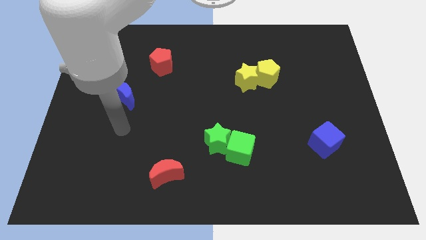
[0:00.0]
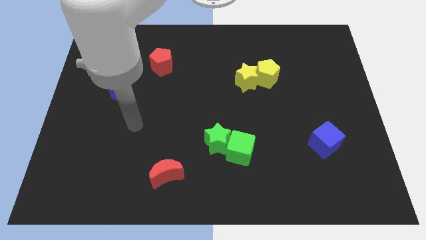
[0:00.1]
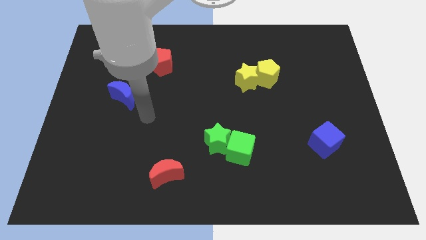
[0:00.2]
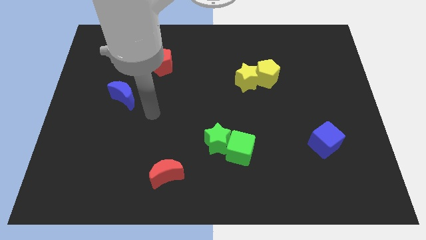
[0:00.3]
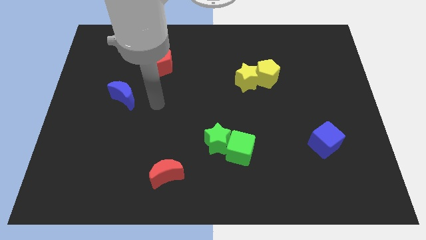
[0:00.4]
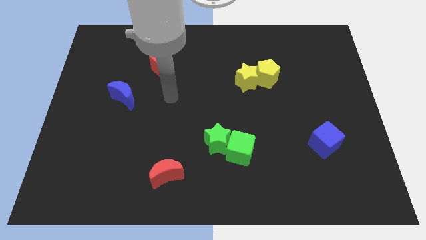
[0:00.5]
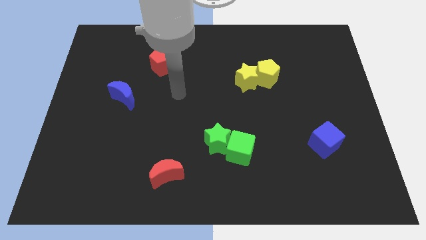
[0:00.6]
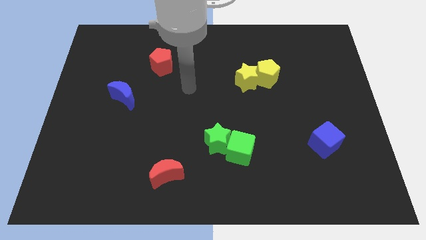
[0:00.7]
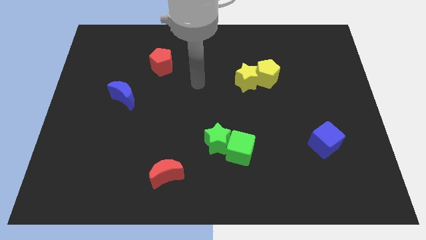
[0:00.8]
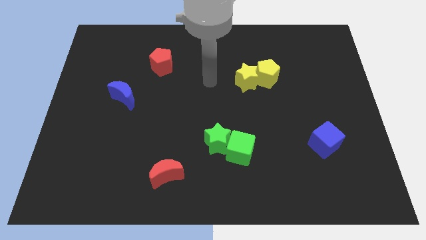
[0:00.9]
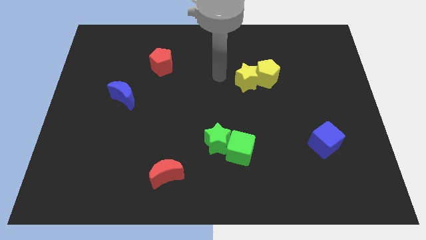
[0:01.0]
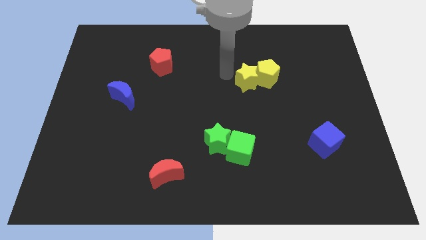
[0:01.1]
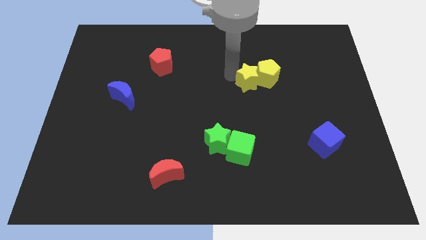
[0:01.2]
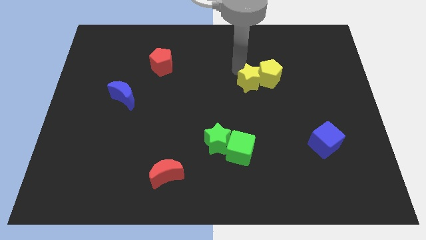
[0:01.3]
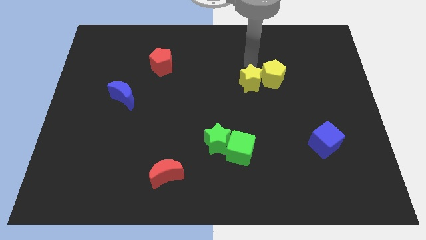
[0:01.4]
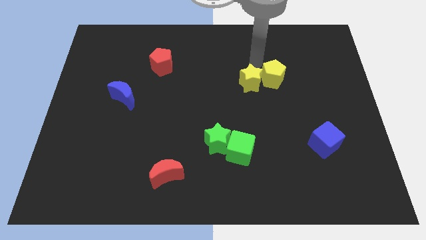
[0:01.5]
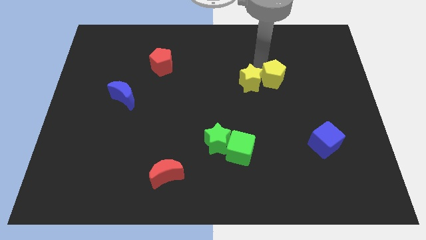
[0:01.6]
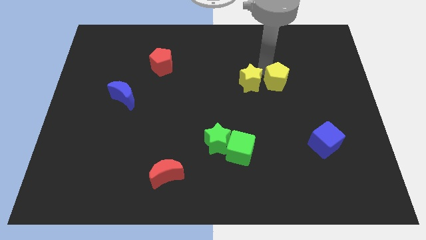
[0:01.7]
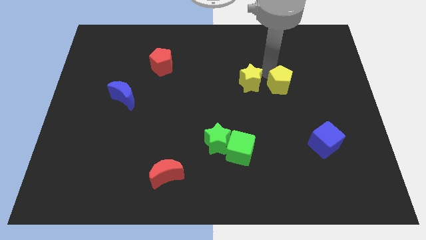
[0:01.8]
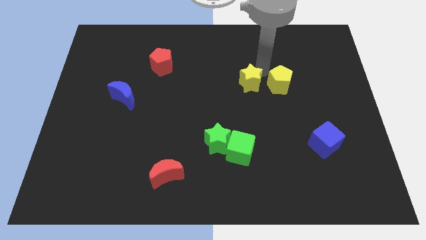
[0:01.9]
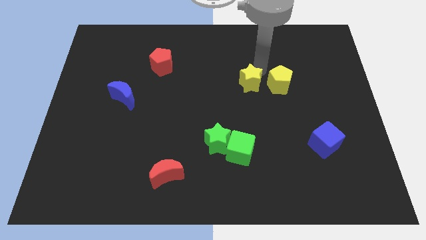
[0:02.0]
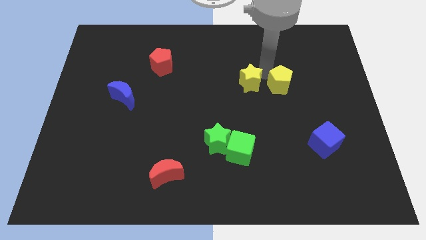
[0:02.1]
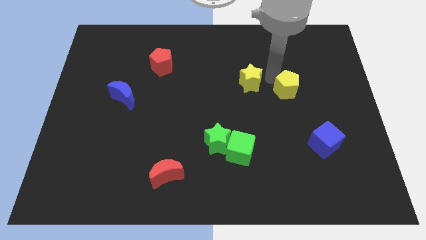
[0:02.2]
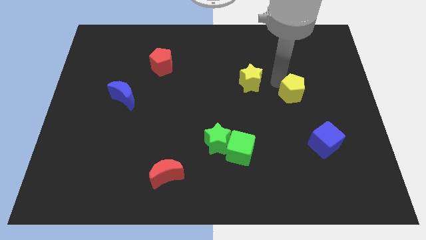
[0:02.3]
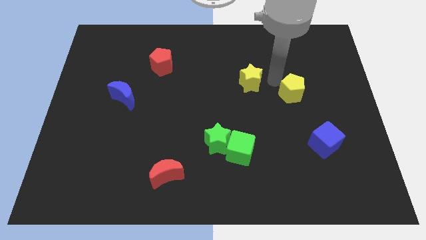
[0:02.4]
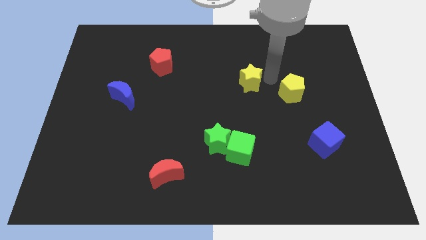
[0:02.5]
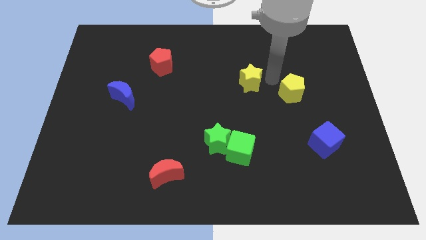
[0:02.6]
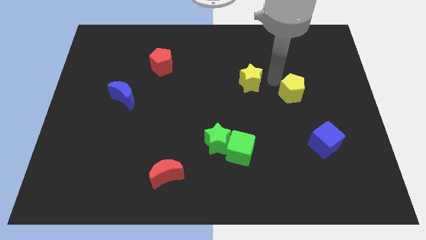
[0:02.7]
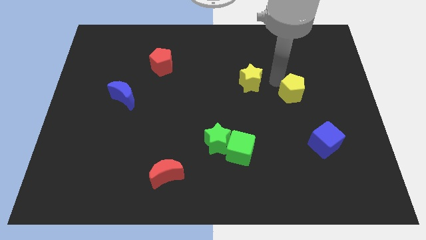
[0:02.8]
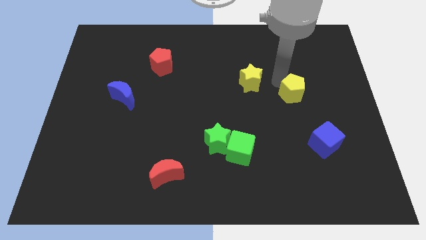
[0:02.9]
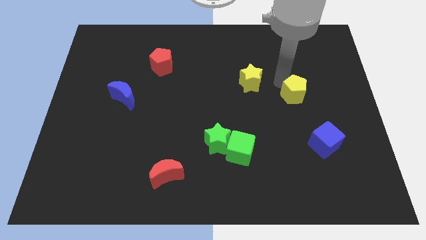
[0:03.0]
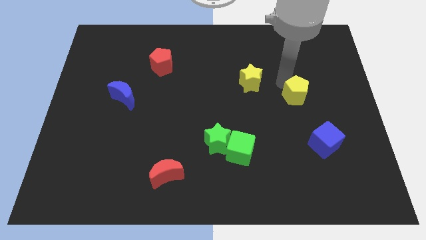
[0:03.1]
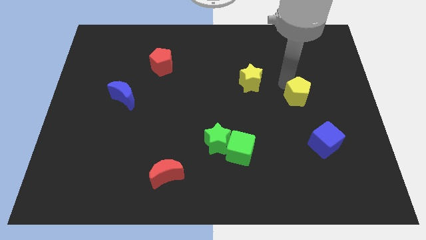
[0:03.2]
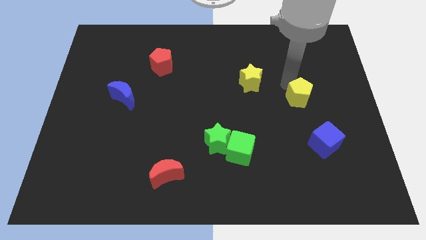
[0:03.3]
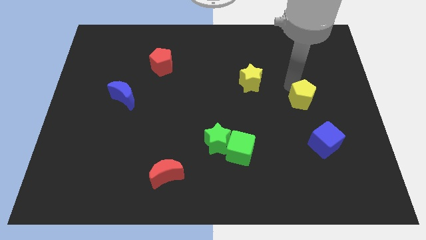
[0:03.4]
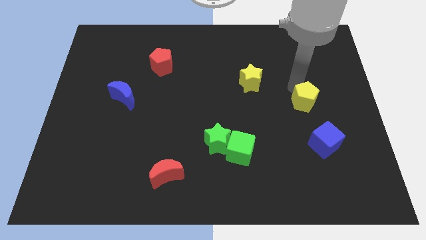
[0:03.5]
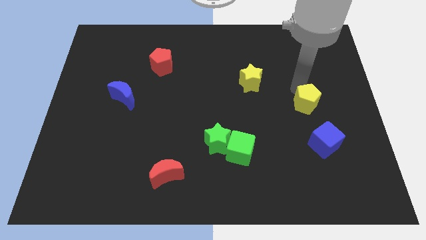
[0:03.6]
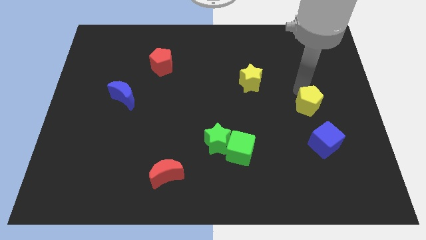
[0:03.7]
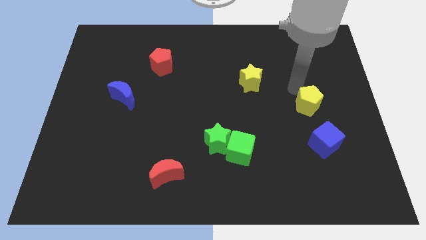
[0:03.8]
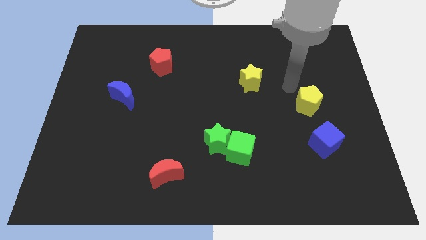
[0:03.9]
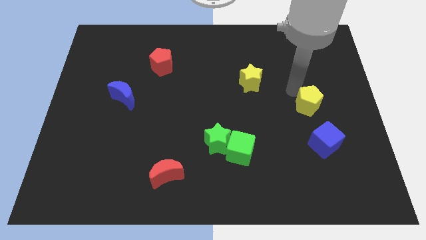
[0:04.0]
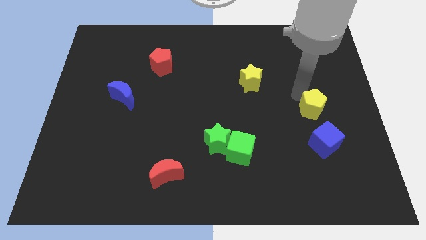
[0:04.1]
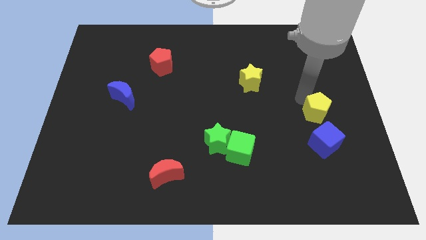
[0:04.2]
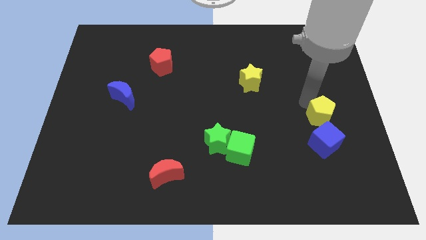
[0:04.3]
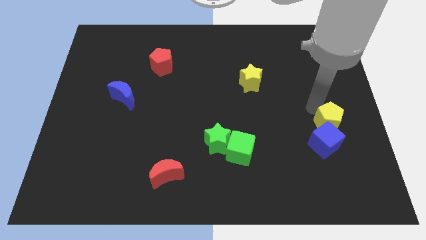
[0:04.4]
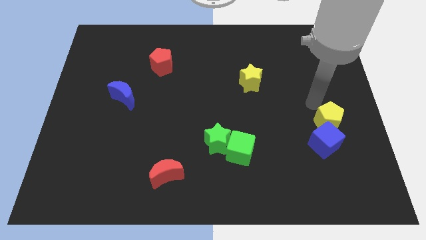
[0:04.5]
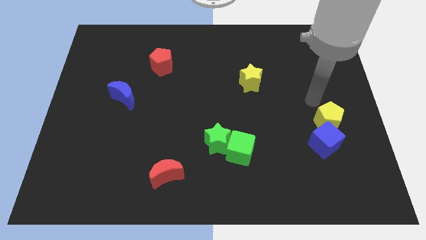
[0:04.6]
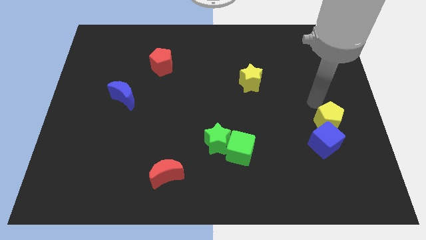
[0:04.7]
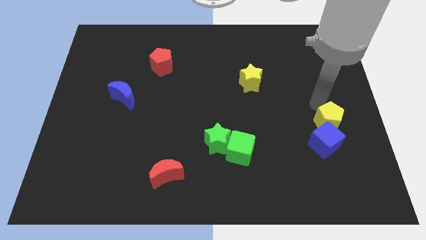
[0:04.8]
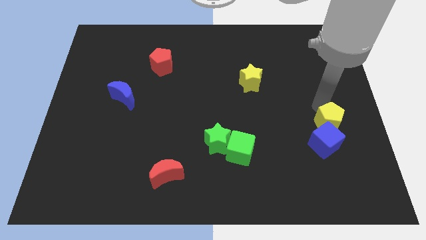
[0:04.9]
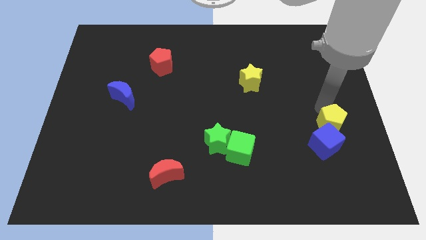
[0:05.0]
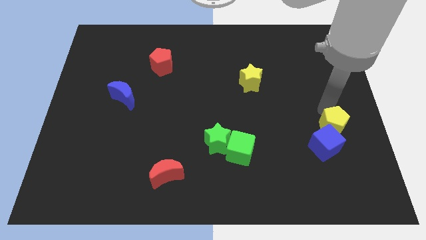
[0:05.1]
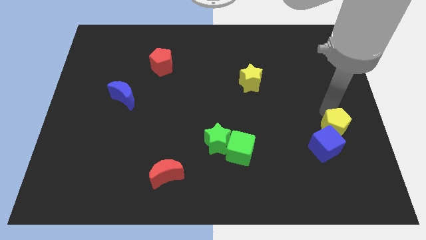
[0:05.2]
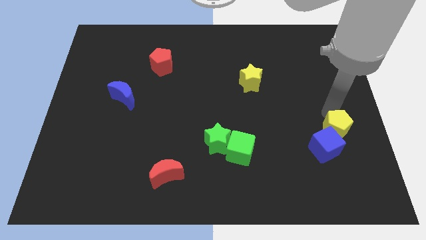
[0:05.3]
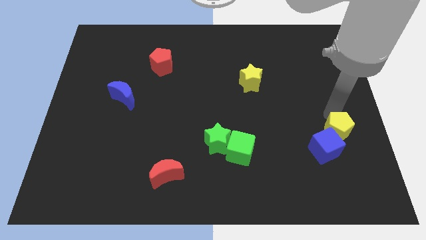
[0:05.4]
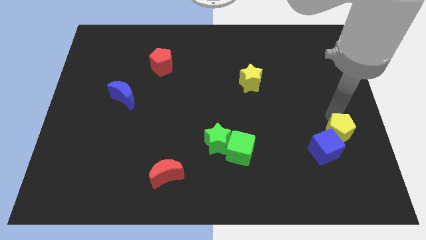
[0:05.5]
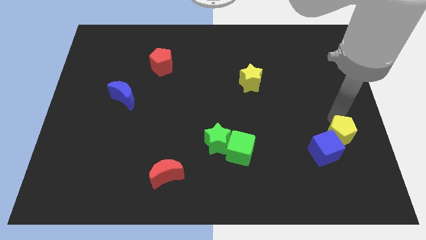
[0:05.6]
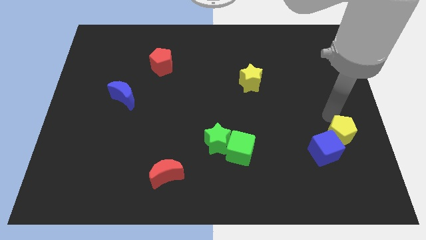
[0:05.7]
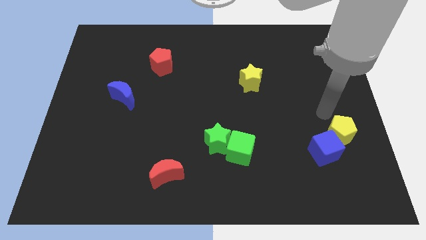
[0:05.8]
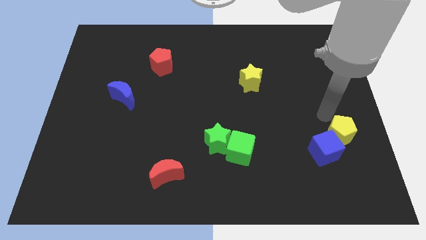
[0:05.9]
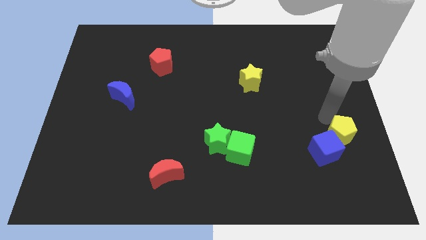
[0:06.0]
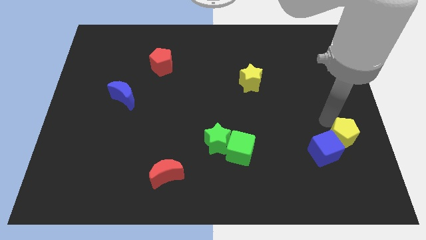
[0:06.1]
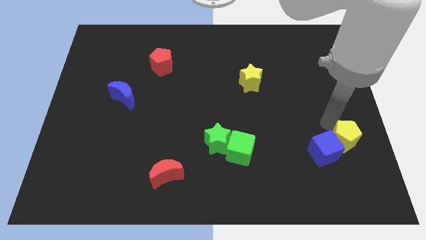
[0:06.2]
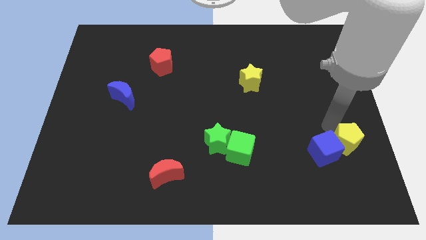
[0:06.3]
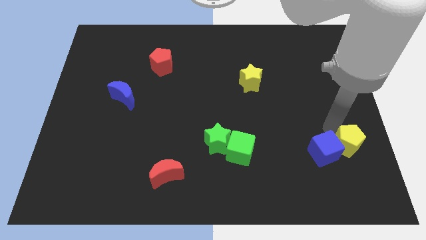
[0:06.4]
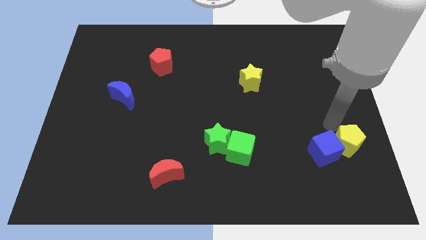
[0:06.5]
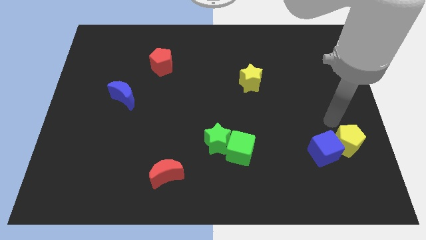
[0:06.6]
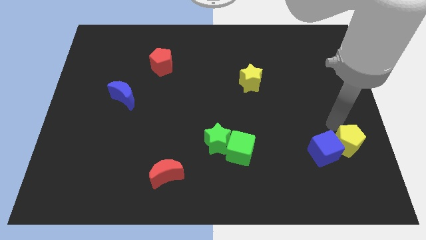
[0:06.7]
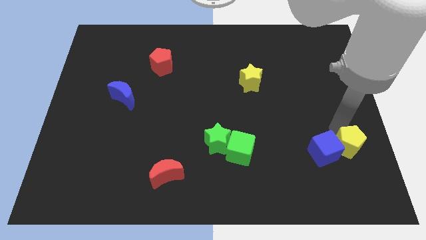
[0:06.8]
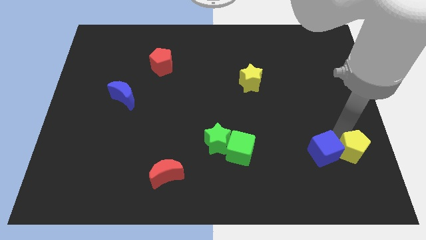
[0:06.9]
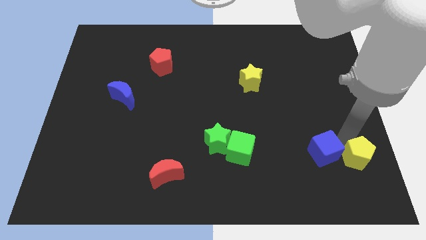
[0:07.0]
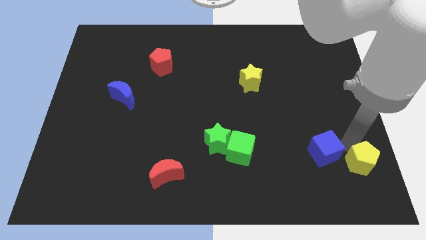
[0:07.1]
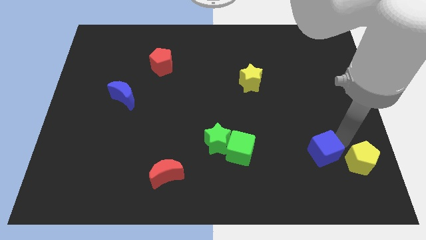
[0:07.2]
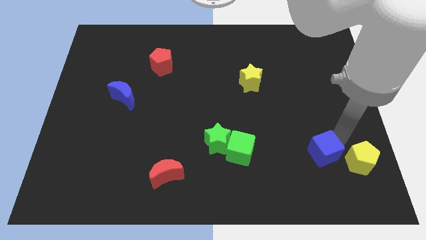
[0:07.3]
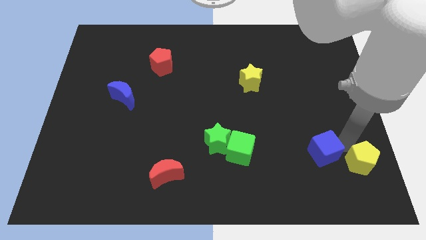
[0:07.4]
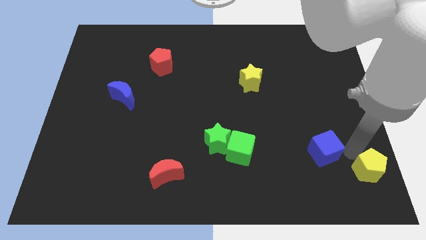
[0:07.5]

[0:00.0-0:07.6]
put the yellow pentagon to the lower right corner
